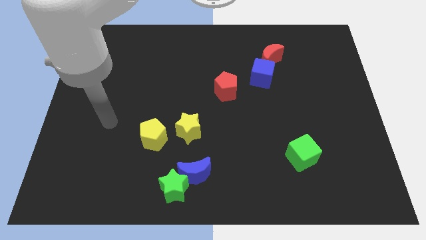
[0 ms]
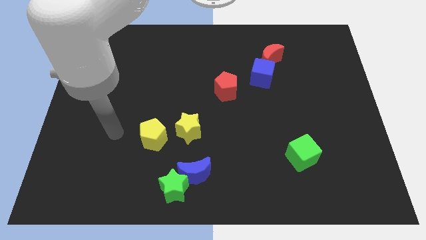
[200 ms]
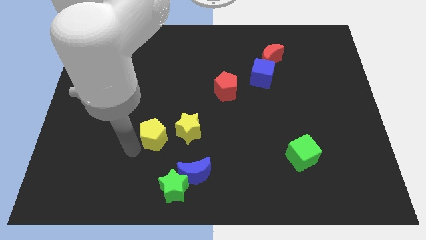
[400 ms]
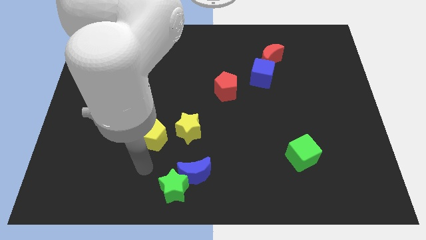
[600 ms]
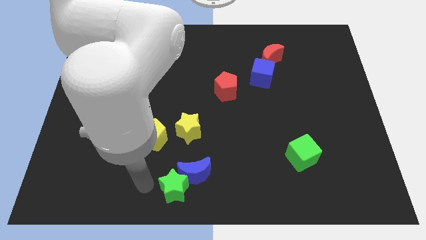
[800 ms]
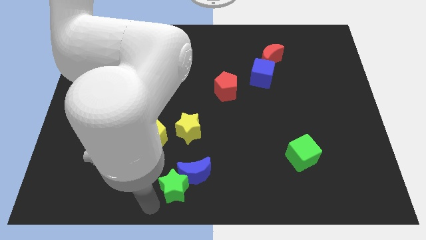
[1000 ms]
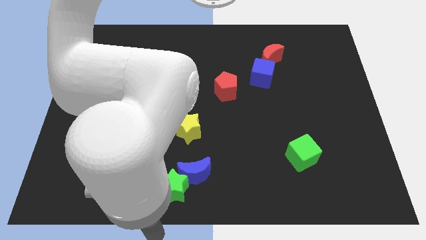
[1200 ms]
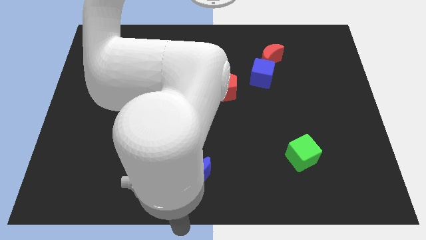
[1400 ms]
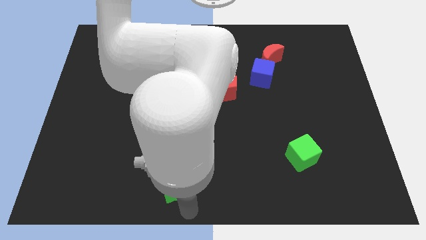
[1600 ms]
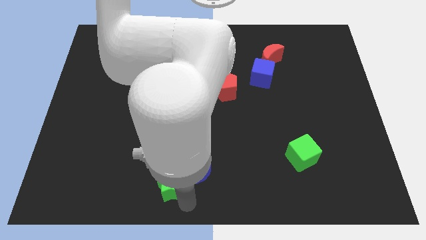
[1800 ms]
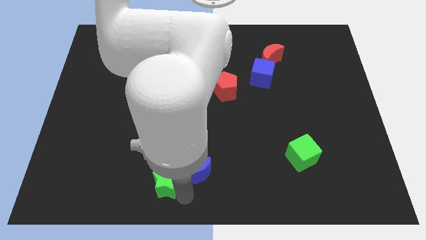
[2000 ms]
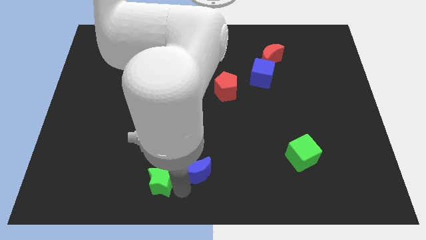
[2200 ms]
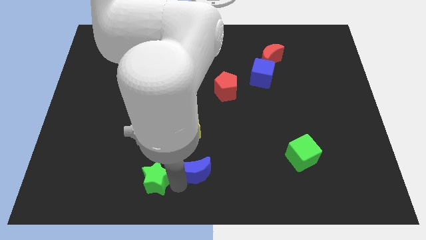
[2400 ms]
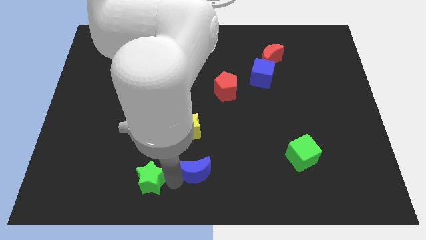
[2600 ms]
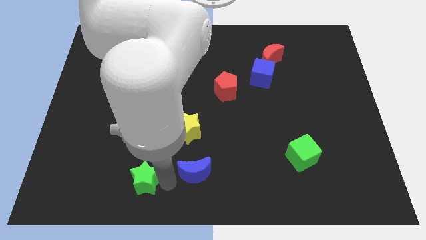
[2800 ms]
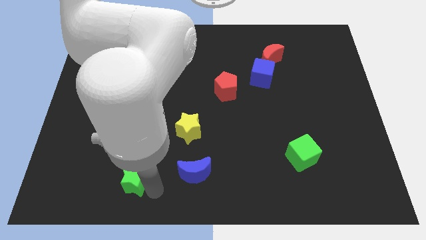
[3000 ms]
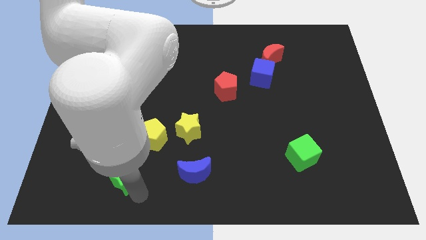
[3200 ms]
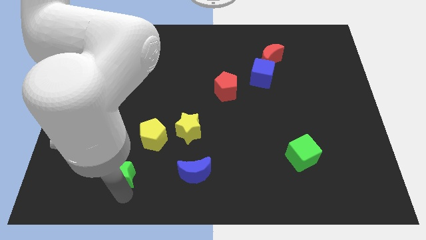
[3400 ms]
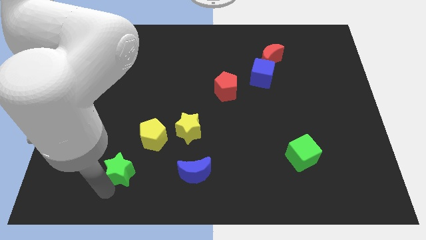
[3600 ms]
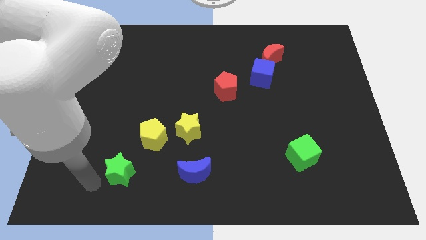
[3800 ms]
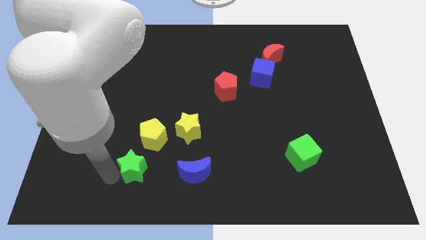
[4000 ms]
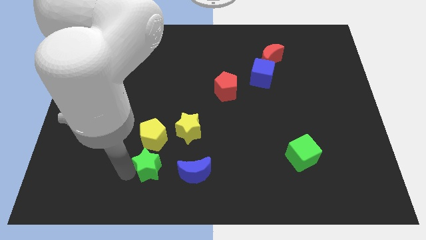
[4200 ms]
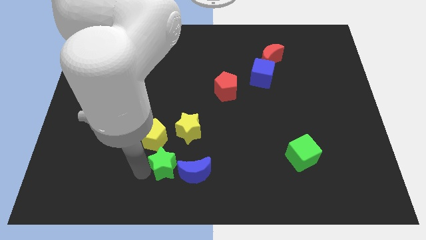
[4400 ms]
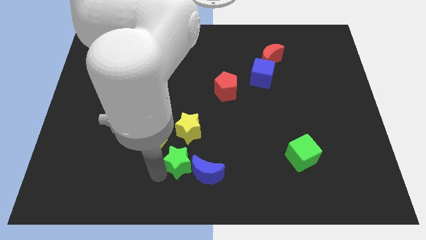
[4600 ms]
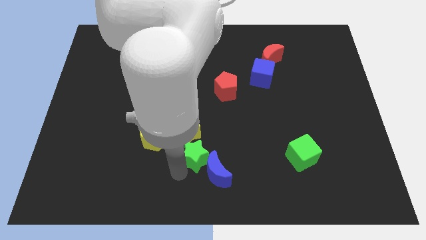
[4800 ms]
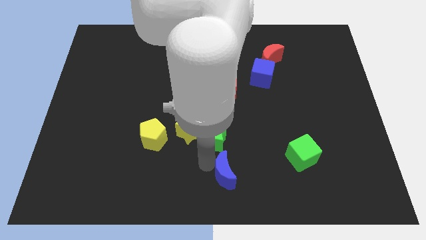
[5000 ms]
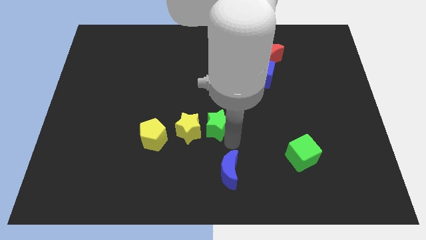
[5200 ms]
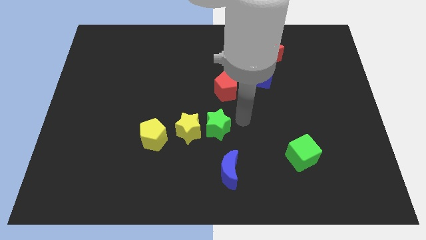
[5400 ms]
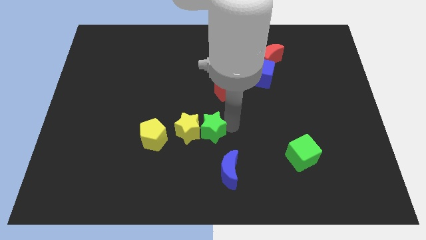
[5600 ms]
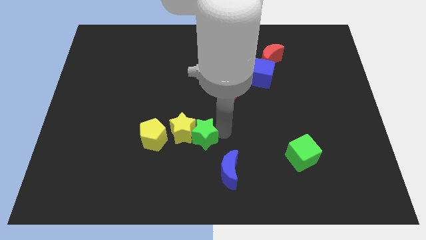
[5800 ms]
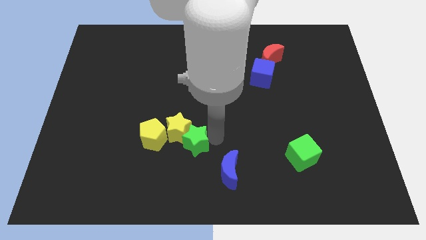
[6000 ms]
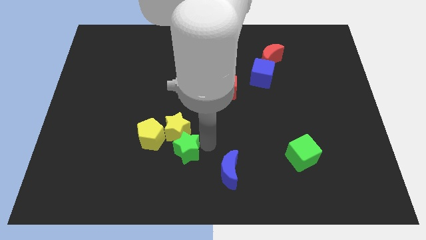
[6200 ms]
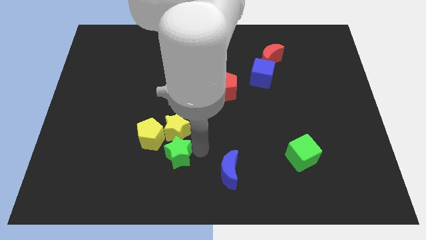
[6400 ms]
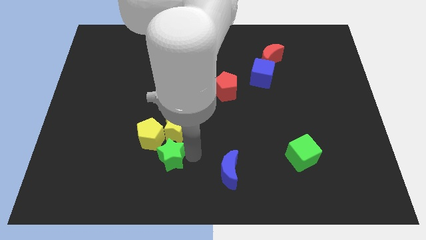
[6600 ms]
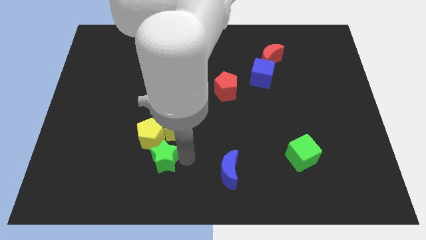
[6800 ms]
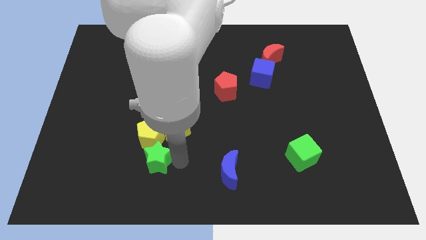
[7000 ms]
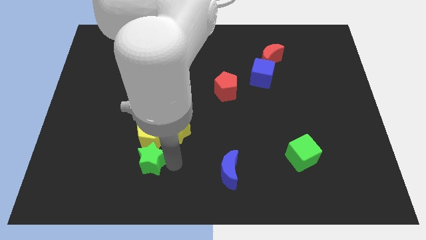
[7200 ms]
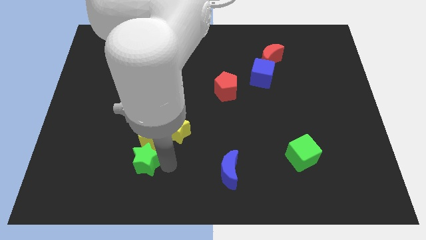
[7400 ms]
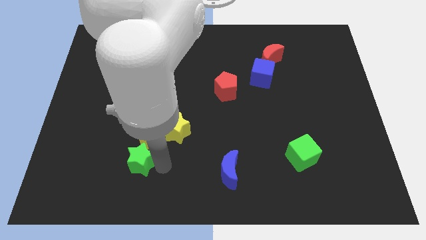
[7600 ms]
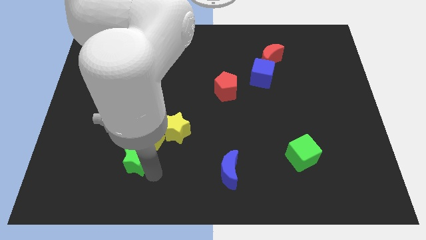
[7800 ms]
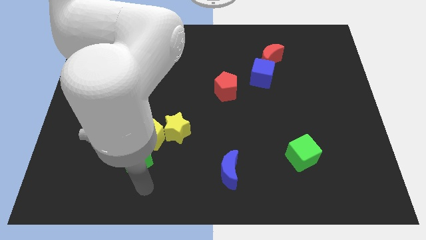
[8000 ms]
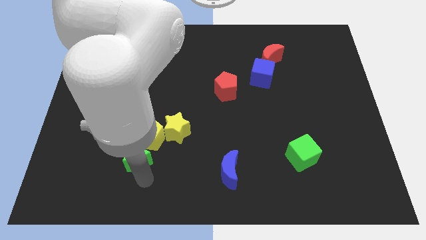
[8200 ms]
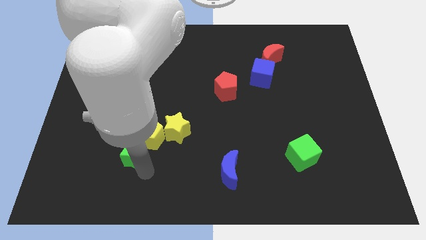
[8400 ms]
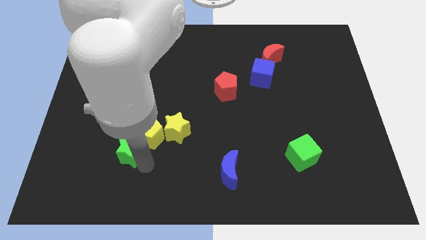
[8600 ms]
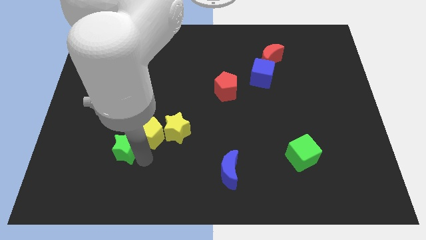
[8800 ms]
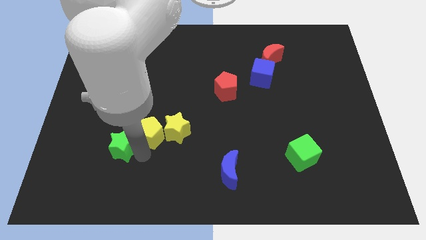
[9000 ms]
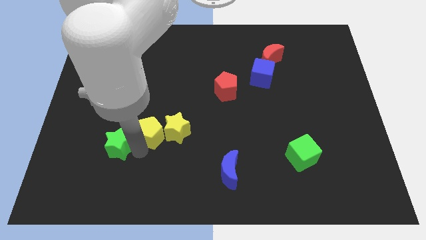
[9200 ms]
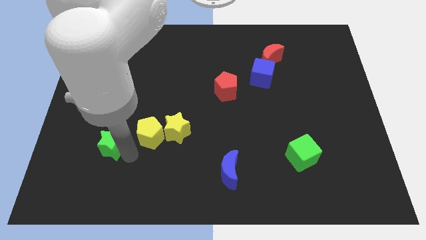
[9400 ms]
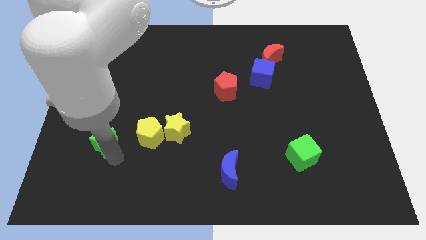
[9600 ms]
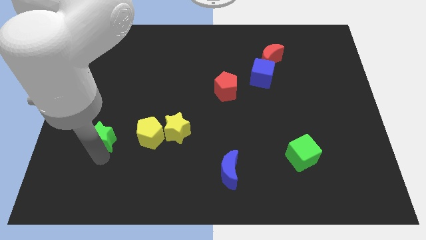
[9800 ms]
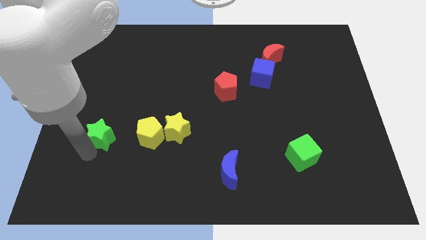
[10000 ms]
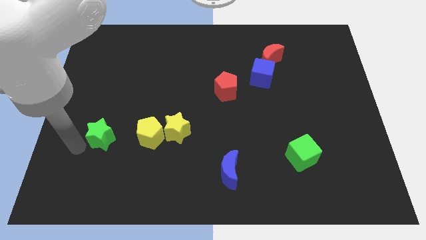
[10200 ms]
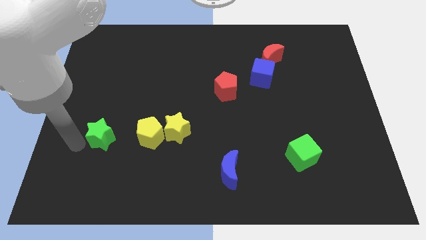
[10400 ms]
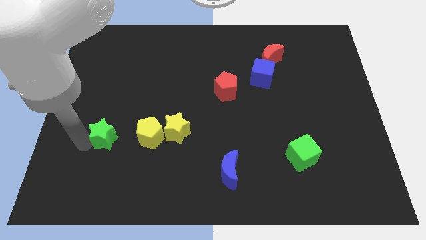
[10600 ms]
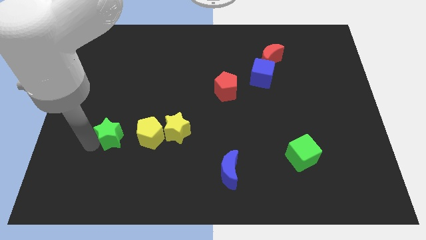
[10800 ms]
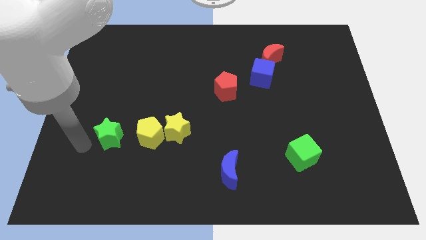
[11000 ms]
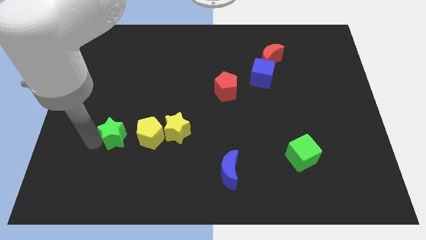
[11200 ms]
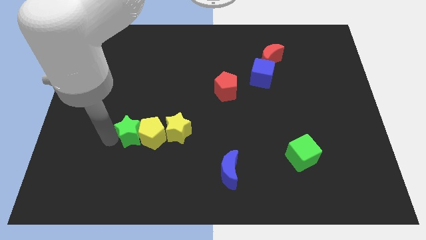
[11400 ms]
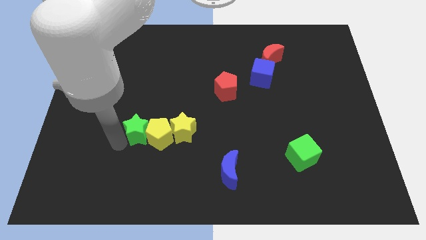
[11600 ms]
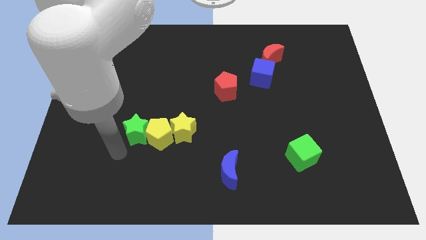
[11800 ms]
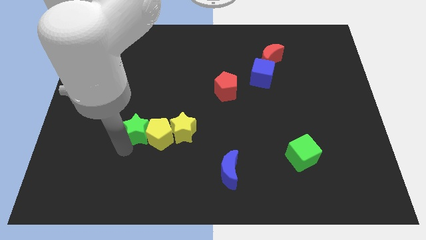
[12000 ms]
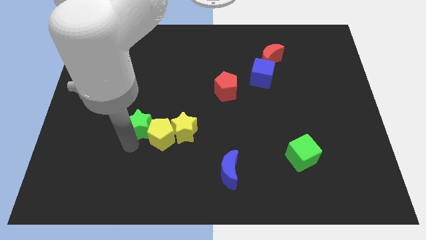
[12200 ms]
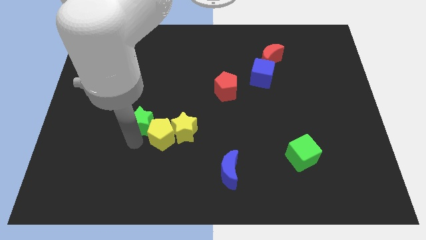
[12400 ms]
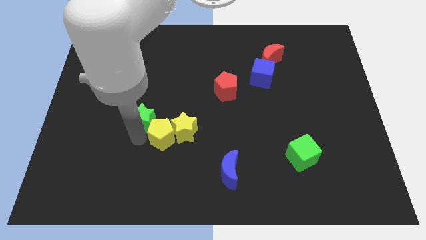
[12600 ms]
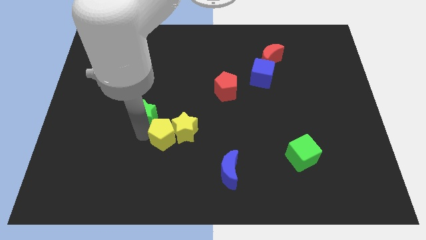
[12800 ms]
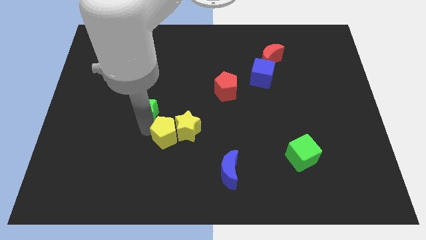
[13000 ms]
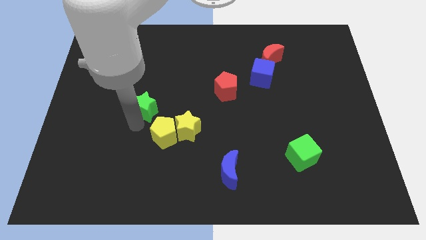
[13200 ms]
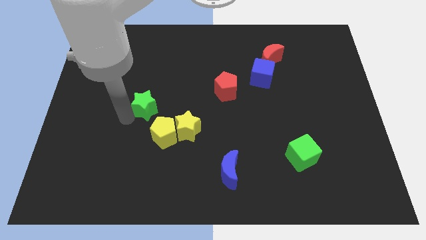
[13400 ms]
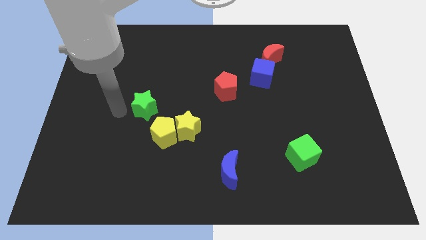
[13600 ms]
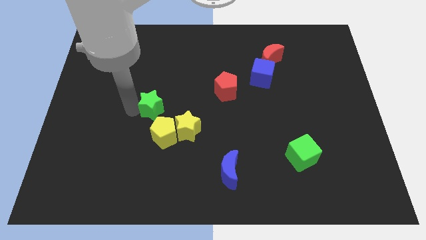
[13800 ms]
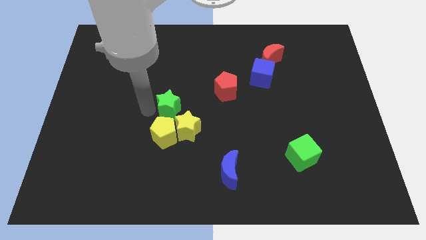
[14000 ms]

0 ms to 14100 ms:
push the green star above the yellow star

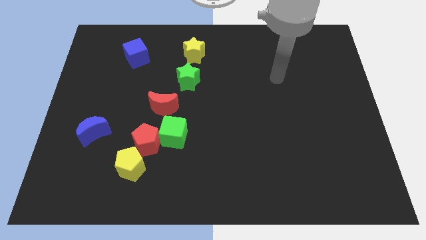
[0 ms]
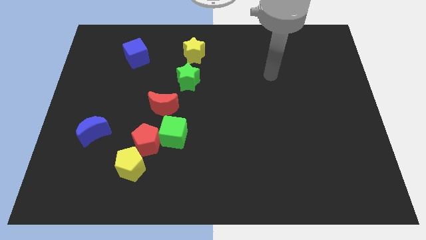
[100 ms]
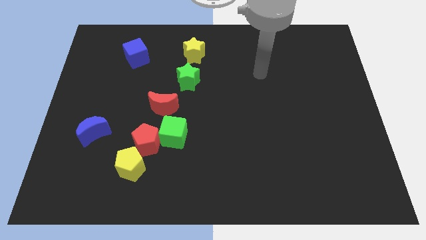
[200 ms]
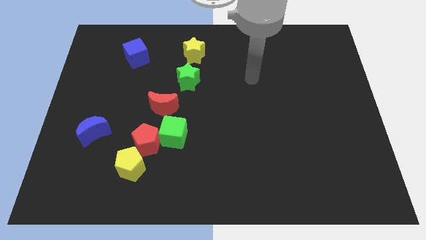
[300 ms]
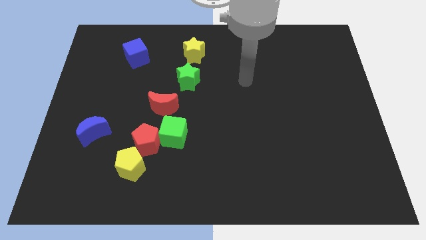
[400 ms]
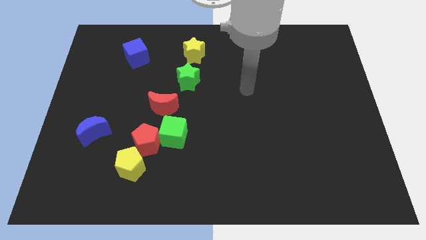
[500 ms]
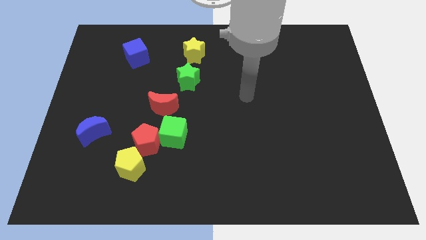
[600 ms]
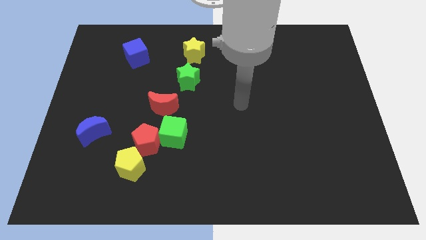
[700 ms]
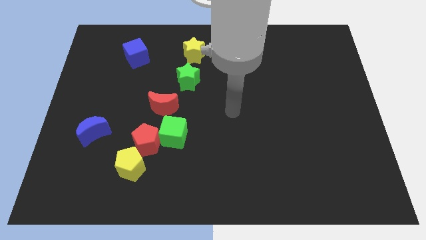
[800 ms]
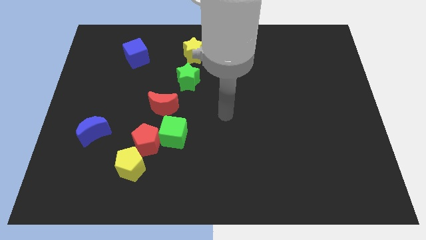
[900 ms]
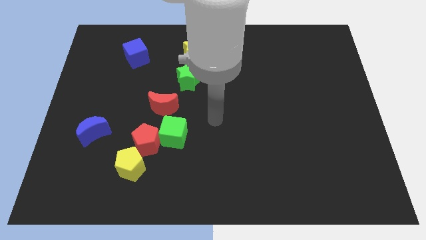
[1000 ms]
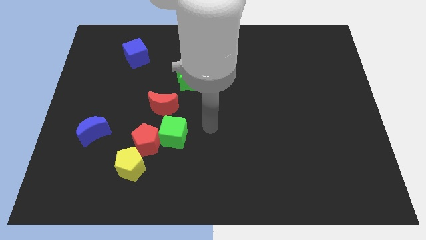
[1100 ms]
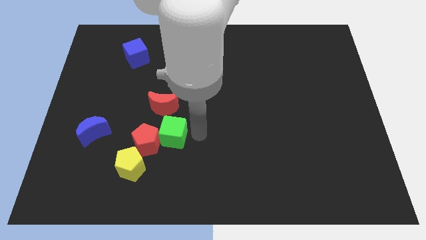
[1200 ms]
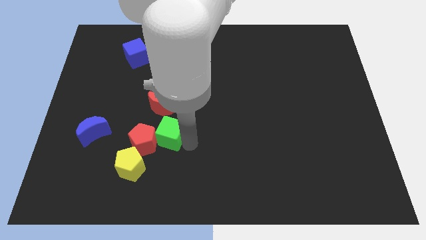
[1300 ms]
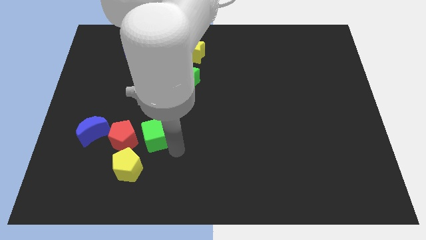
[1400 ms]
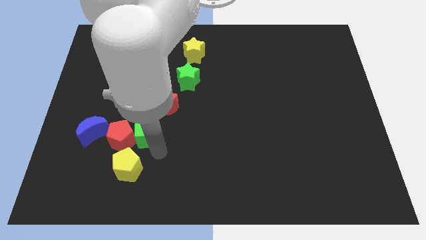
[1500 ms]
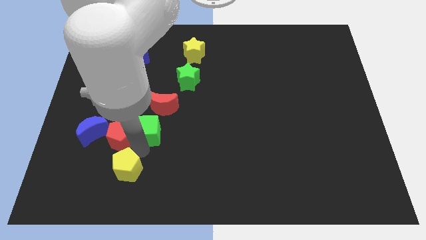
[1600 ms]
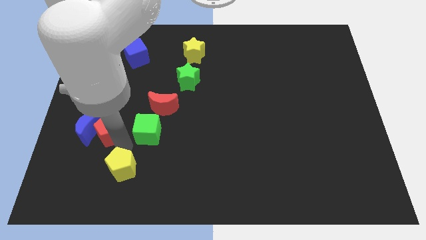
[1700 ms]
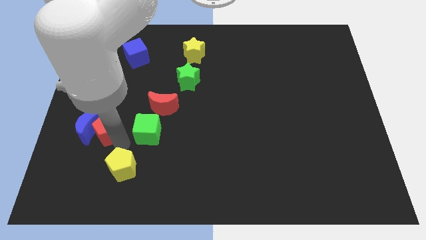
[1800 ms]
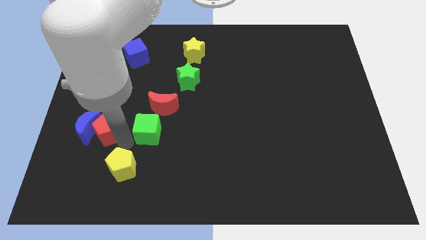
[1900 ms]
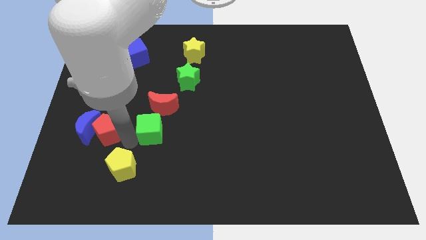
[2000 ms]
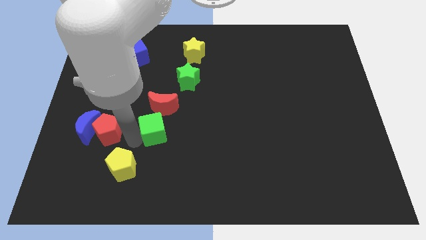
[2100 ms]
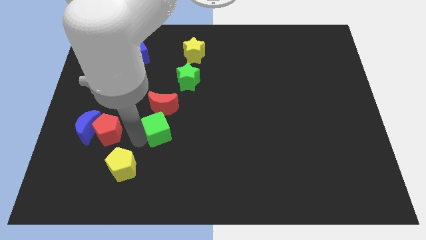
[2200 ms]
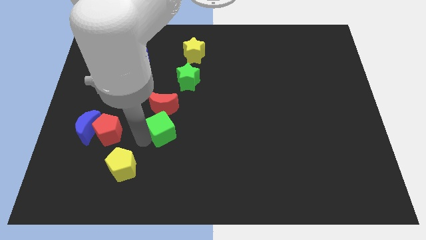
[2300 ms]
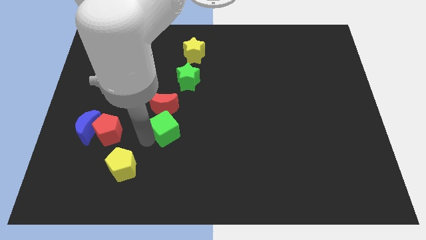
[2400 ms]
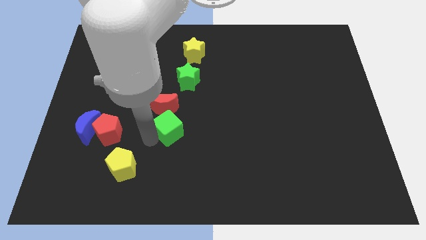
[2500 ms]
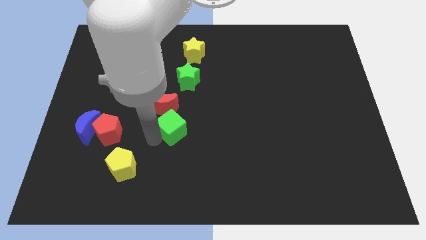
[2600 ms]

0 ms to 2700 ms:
push the green cube below the green star
